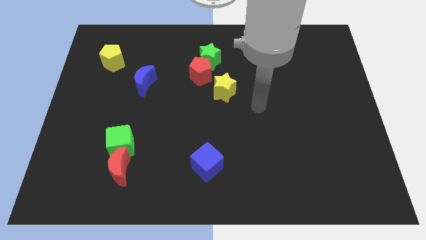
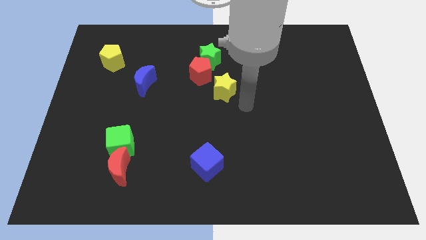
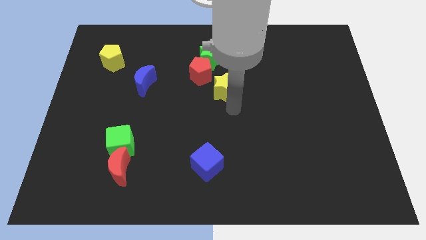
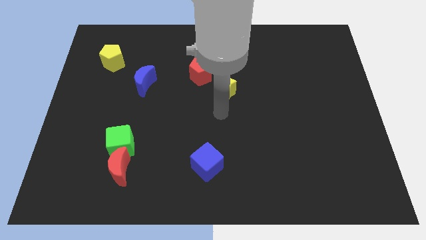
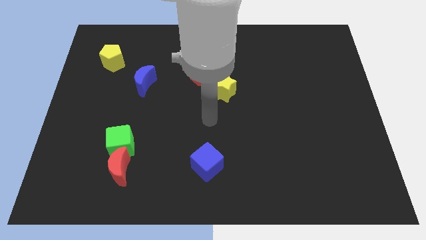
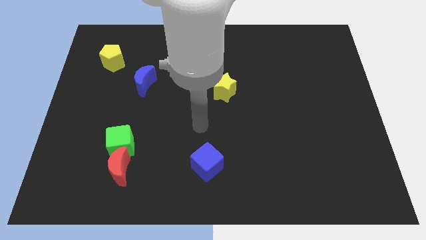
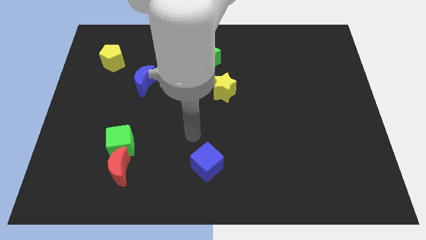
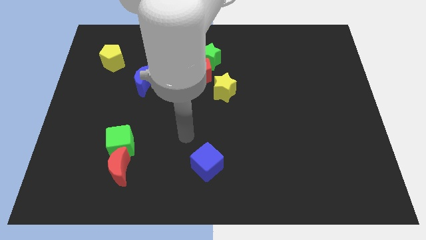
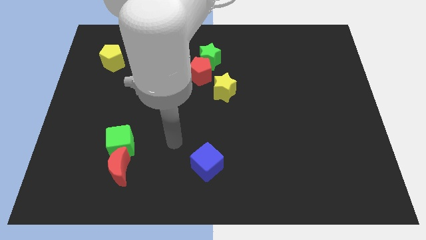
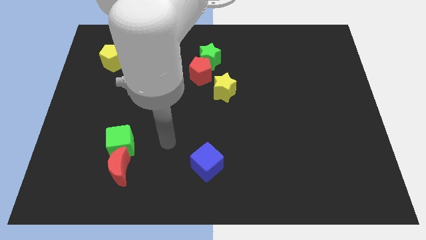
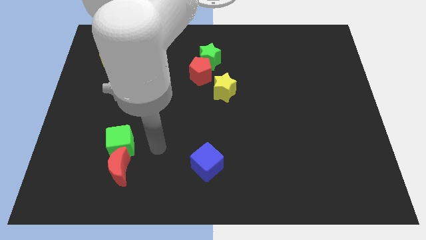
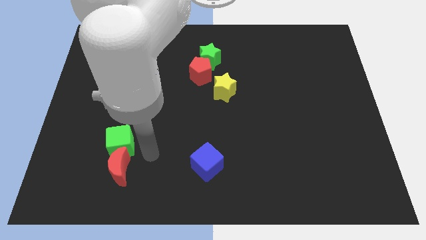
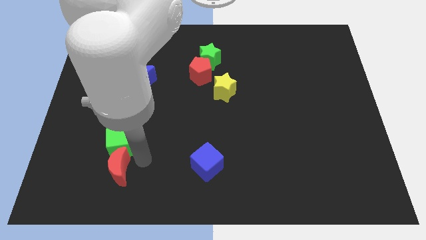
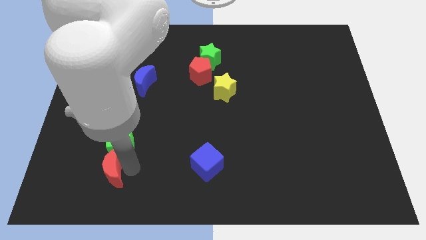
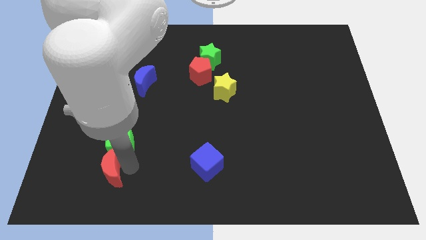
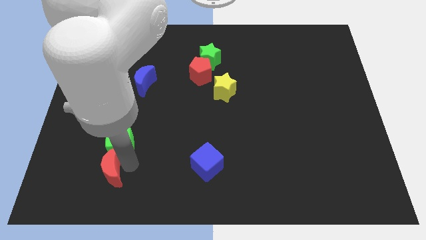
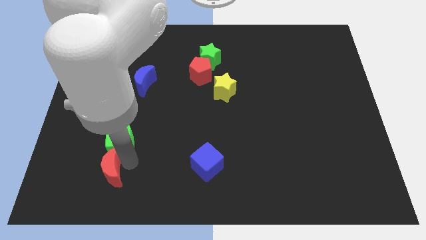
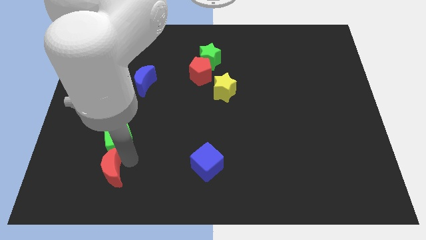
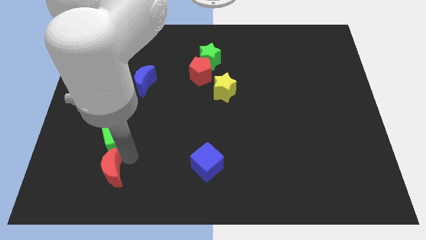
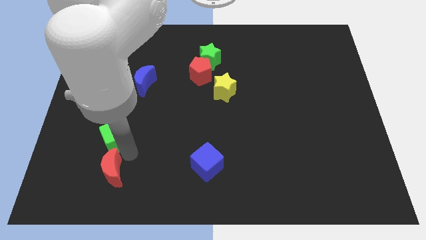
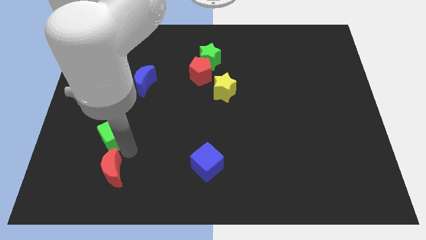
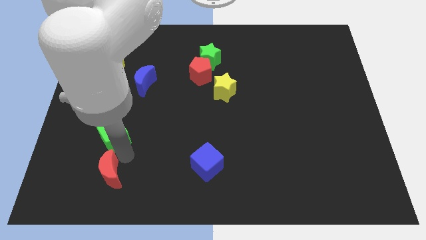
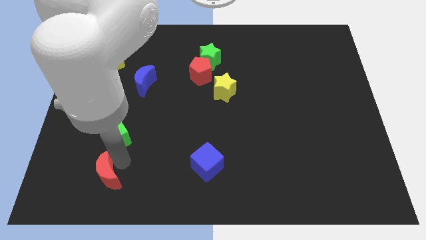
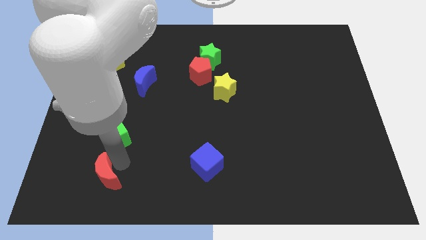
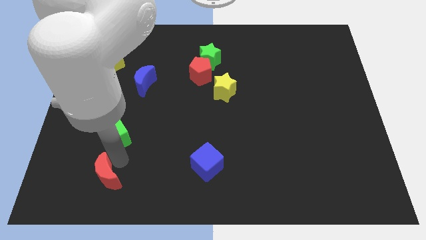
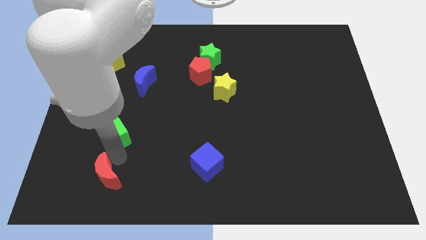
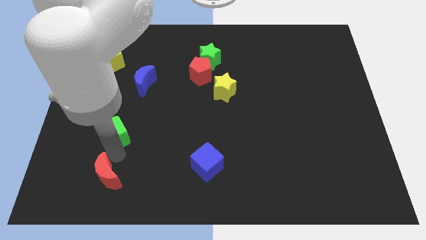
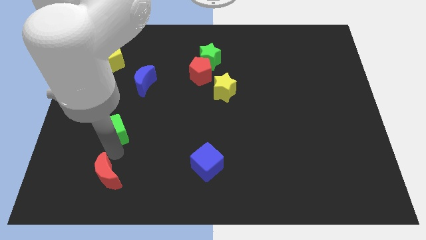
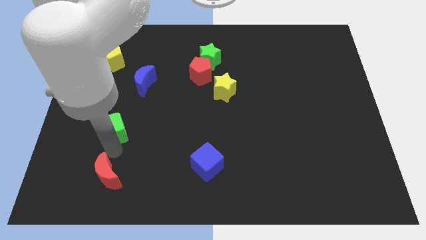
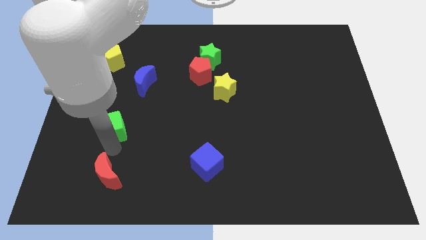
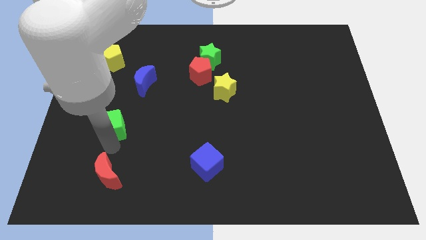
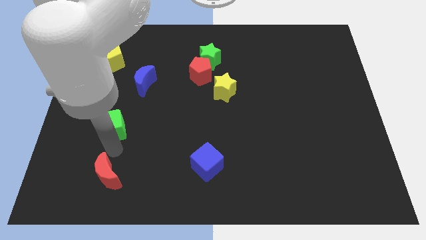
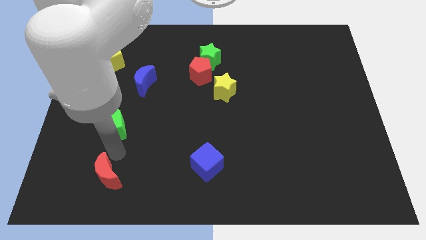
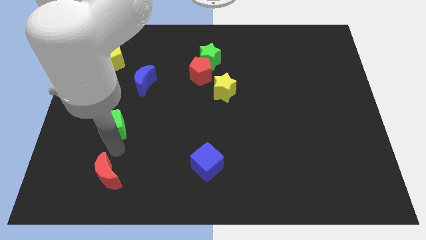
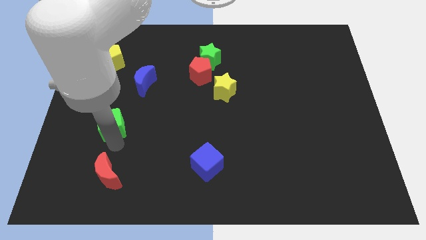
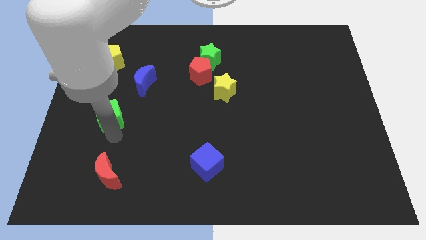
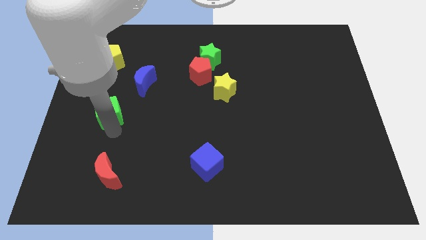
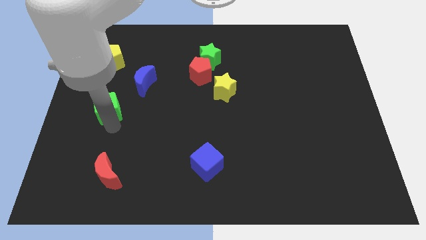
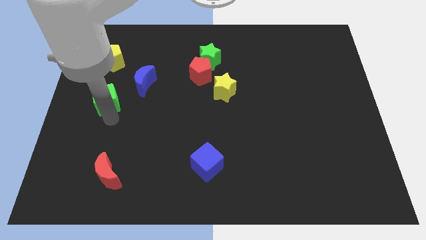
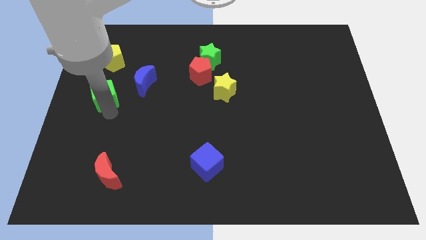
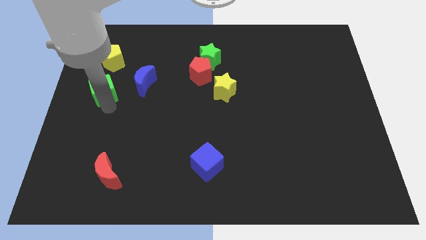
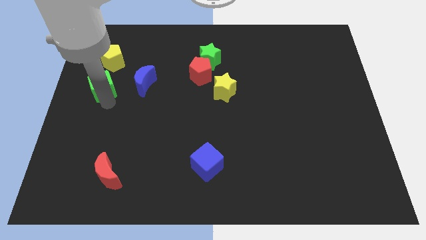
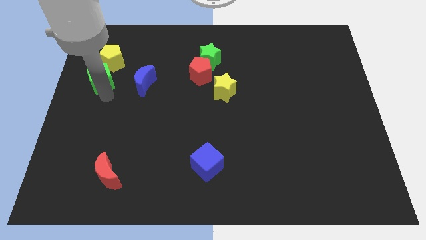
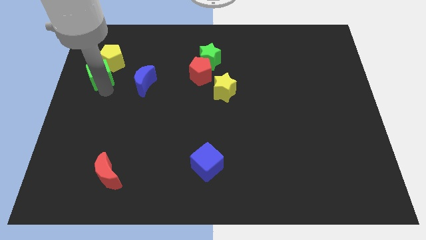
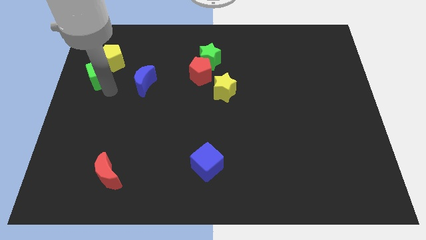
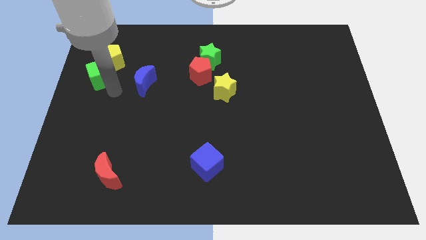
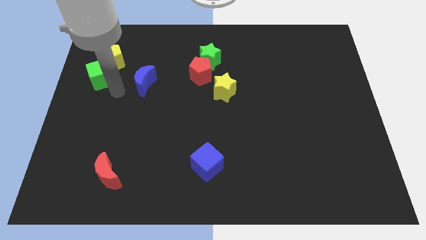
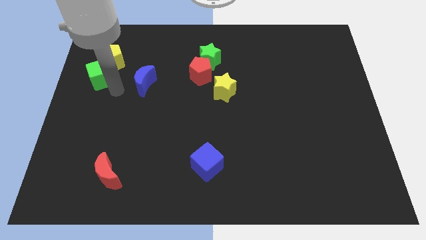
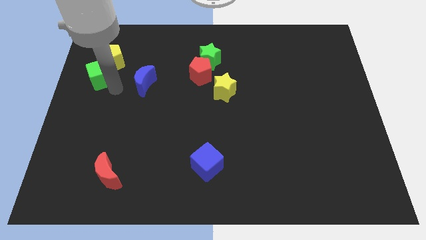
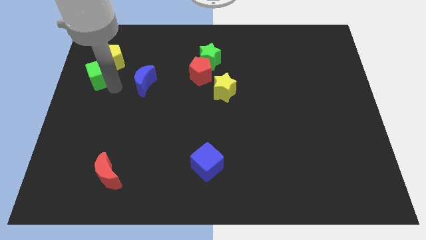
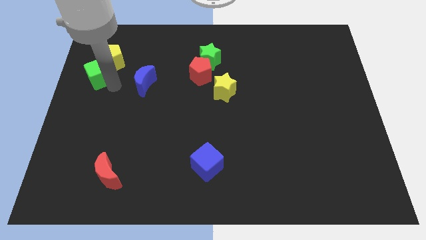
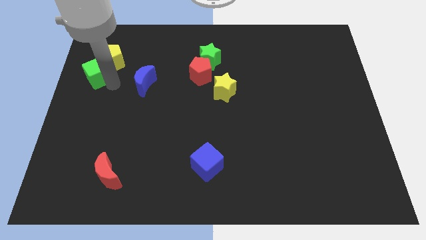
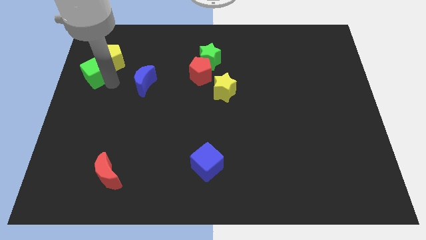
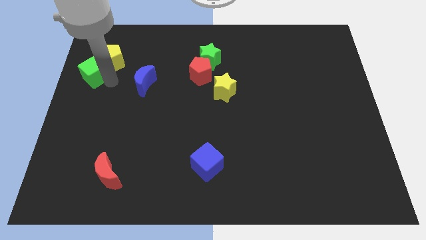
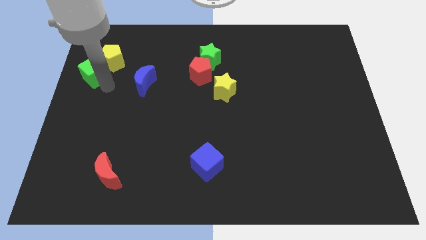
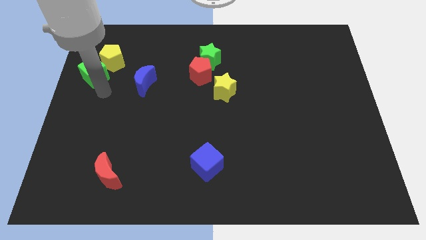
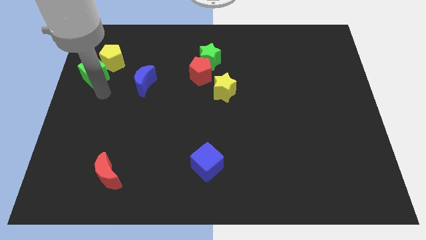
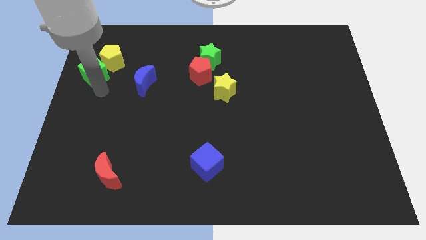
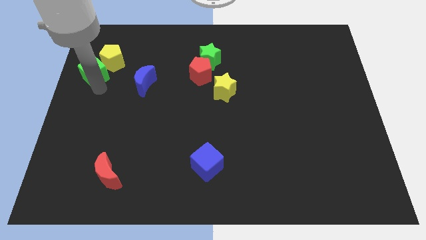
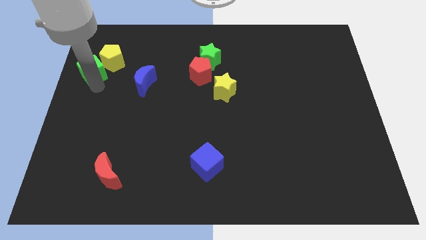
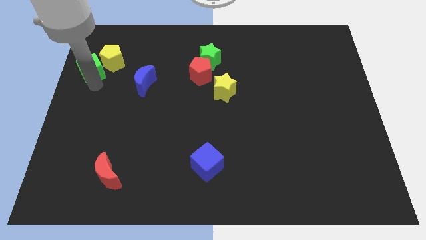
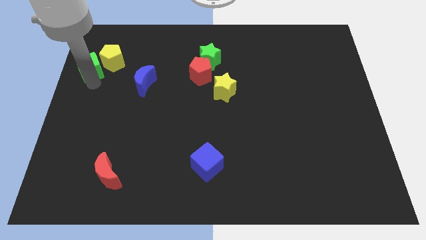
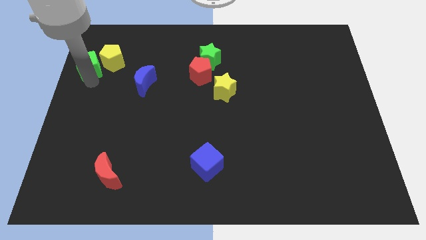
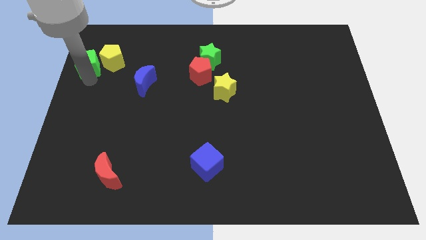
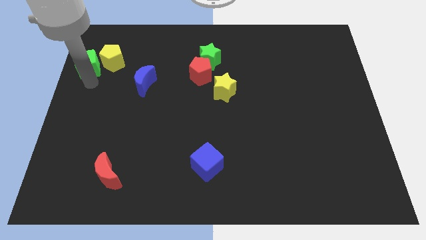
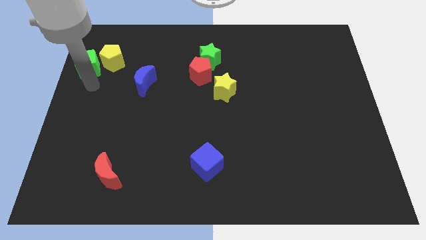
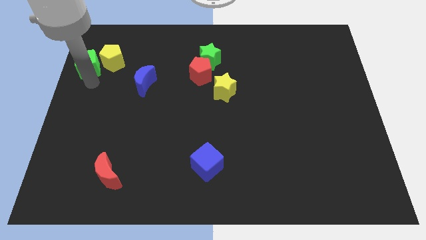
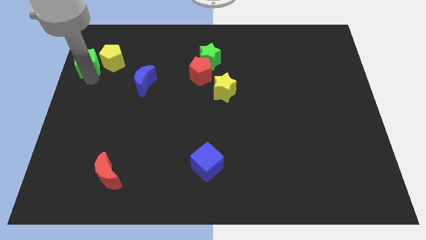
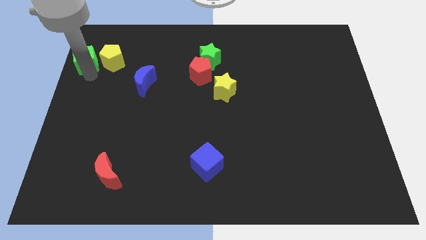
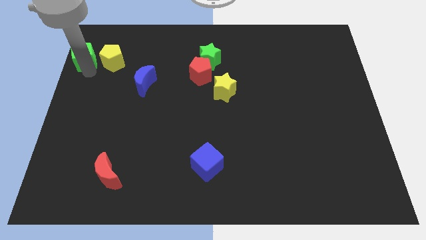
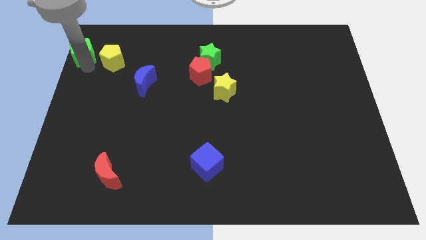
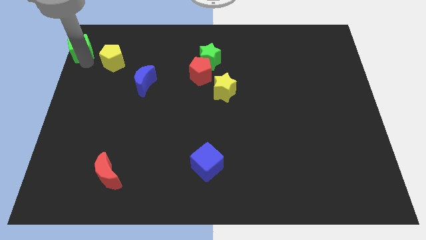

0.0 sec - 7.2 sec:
slide the green cube to the top left corner

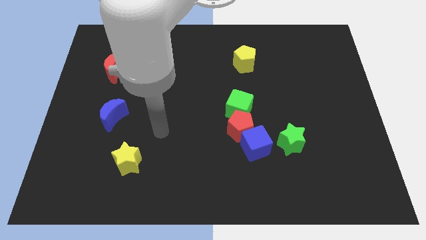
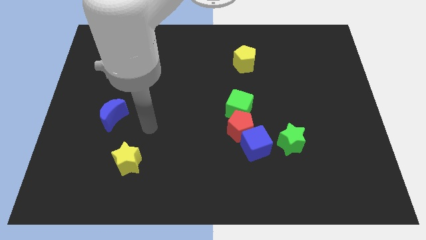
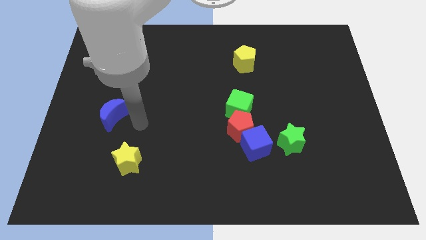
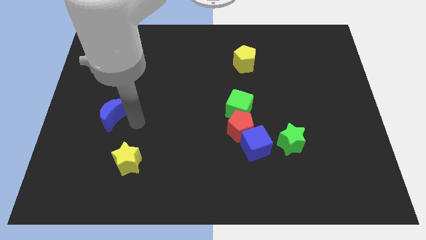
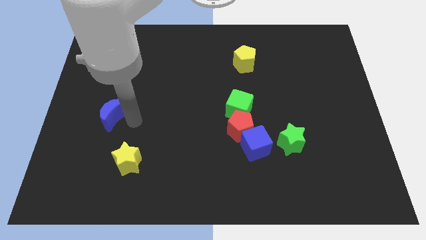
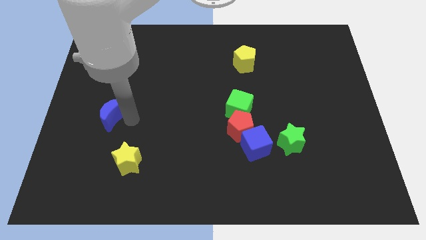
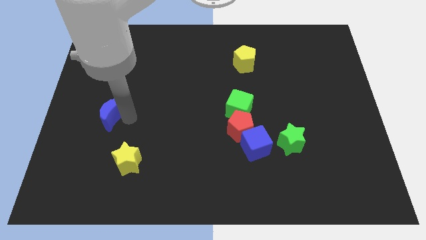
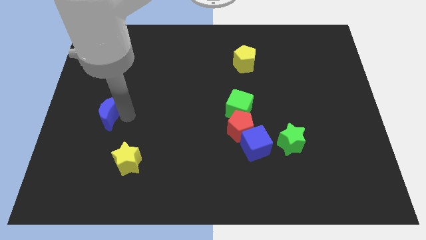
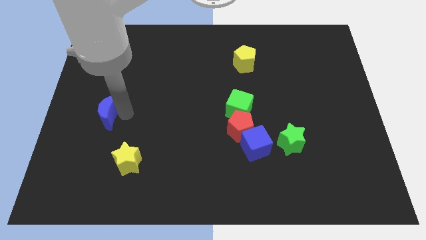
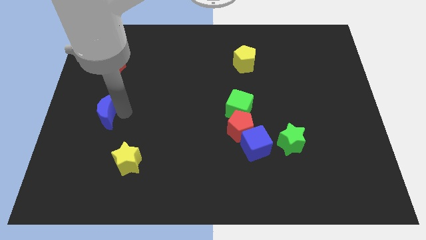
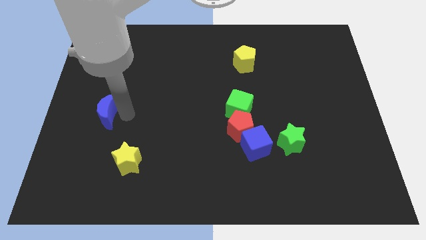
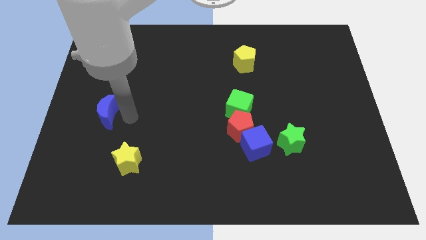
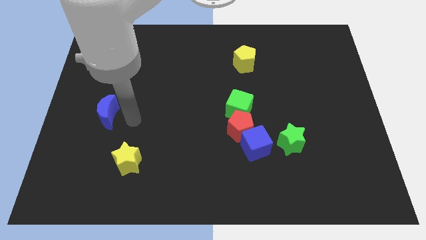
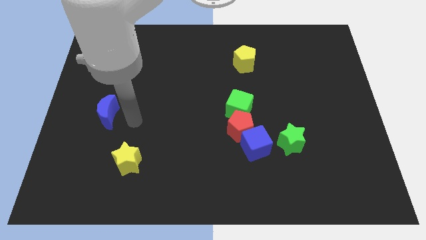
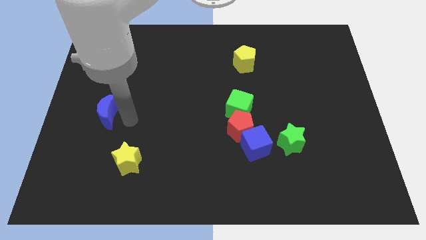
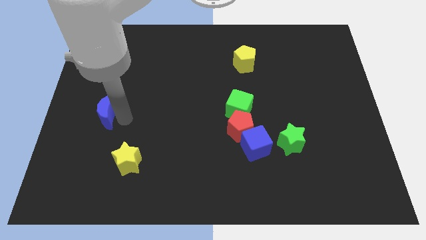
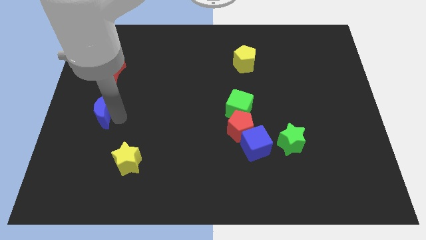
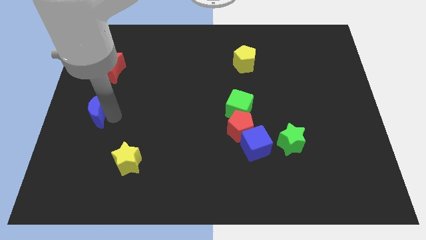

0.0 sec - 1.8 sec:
push the blue moon to the center left
